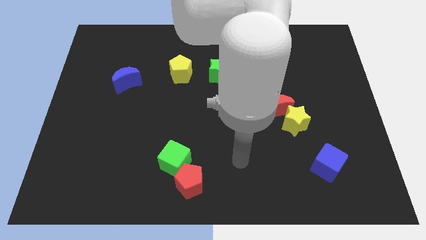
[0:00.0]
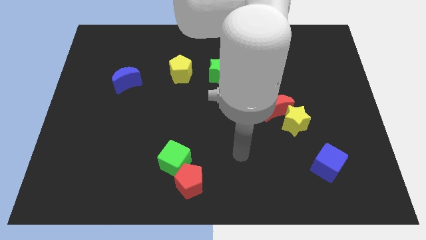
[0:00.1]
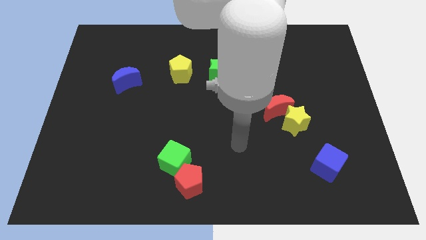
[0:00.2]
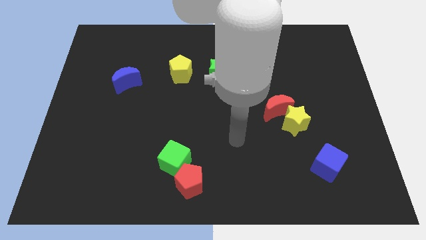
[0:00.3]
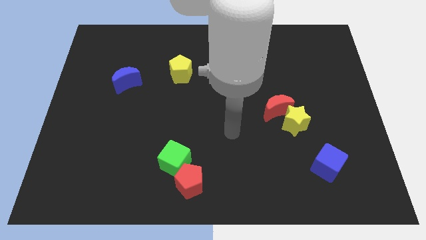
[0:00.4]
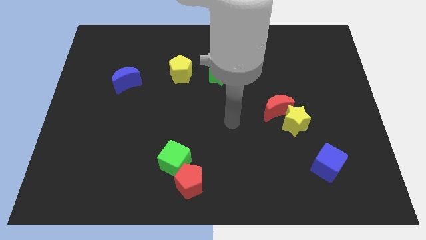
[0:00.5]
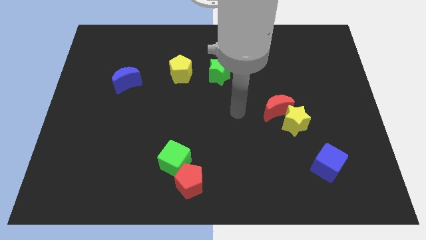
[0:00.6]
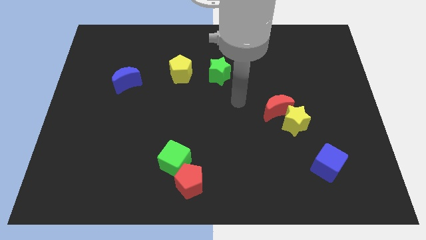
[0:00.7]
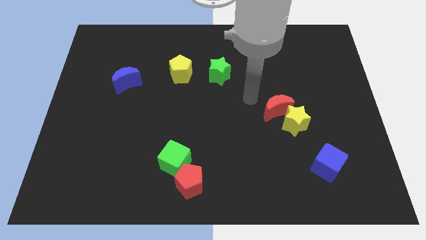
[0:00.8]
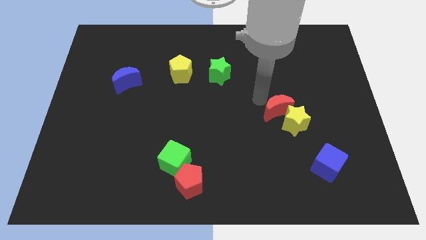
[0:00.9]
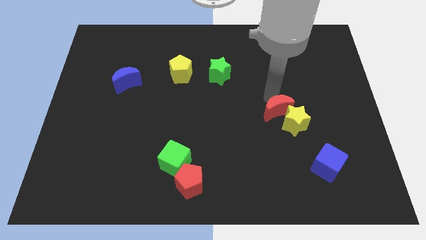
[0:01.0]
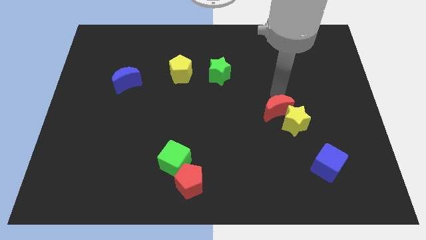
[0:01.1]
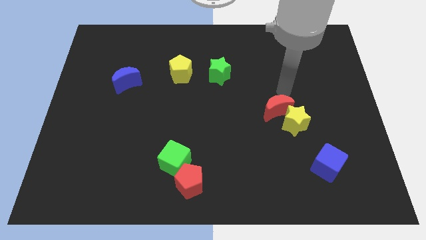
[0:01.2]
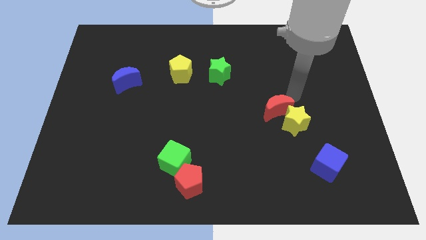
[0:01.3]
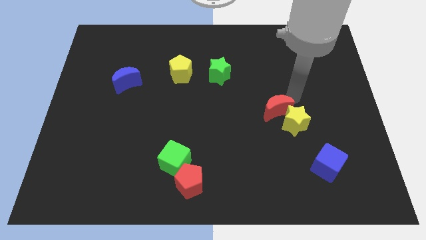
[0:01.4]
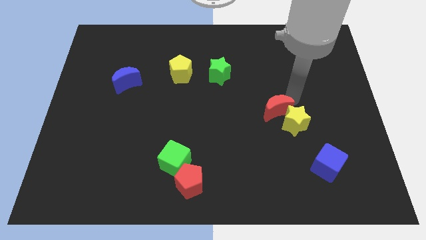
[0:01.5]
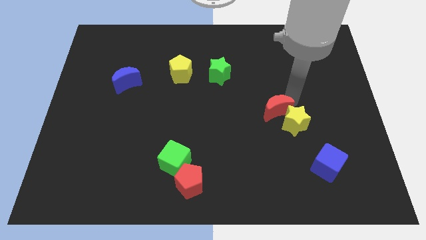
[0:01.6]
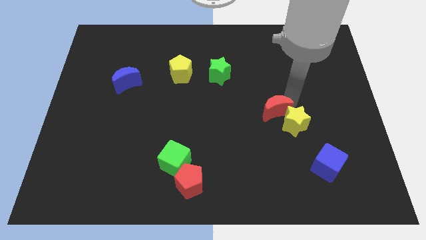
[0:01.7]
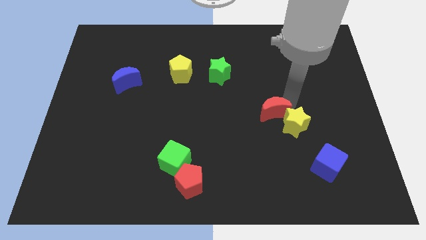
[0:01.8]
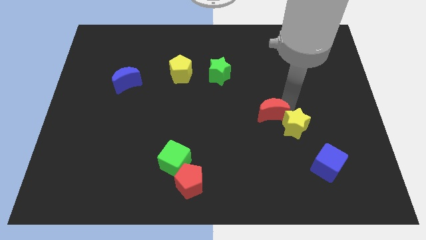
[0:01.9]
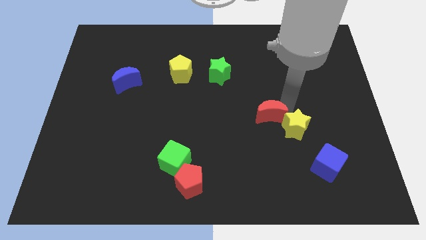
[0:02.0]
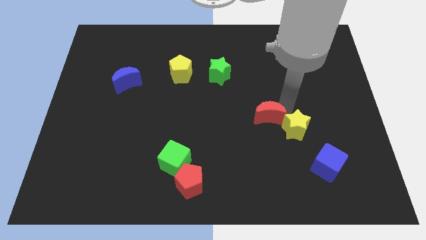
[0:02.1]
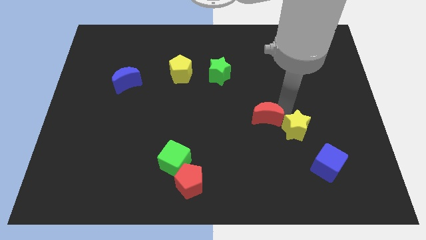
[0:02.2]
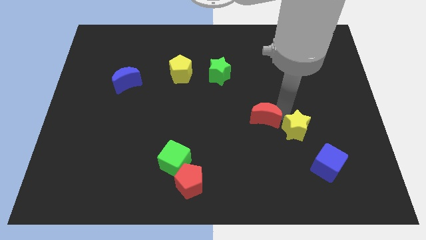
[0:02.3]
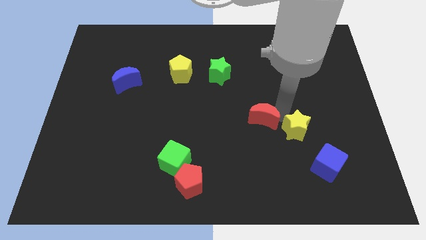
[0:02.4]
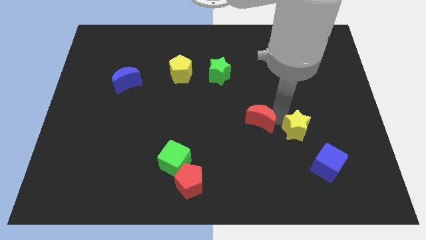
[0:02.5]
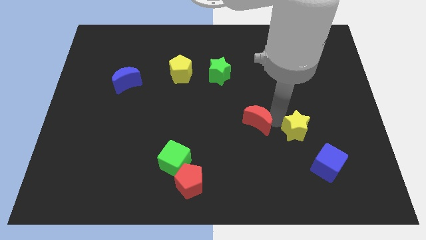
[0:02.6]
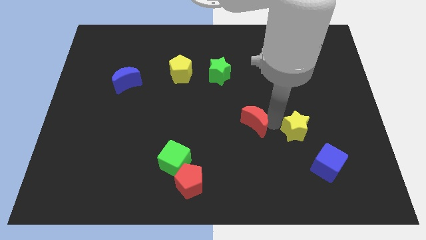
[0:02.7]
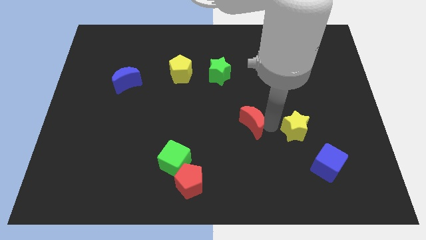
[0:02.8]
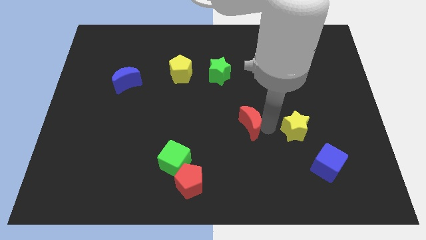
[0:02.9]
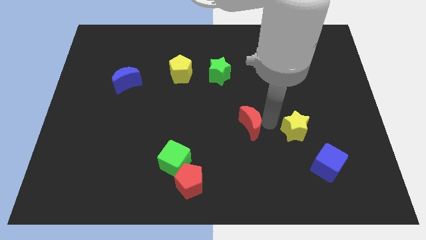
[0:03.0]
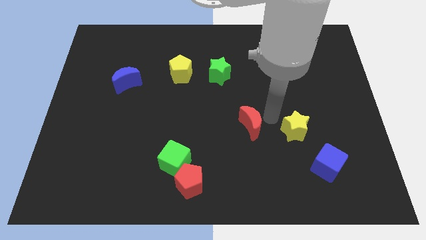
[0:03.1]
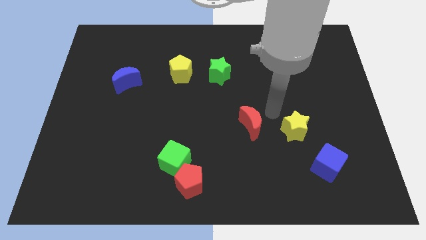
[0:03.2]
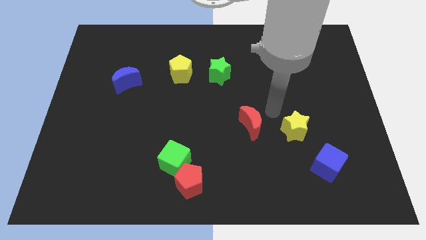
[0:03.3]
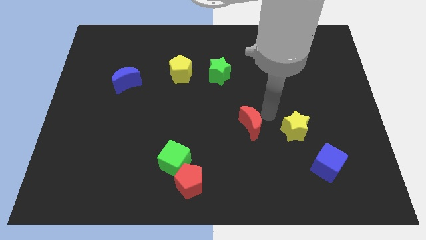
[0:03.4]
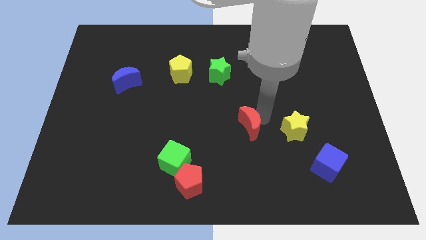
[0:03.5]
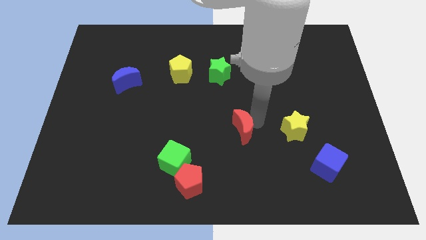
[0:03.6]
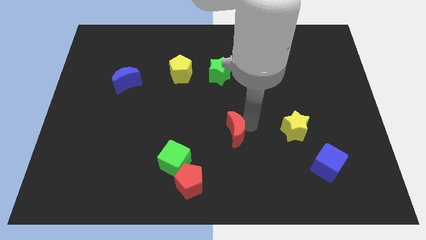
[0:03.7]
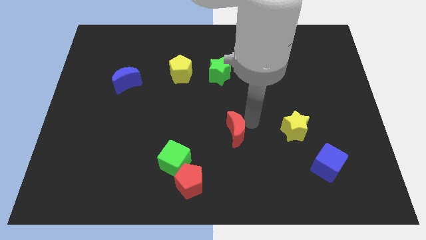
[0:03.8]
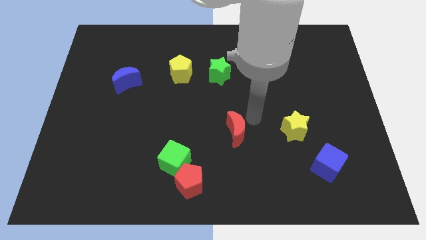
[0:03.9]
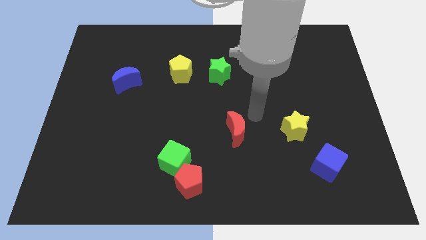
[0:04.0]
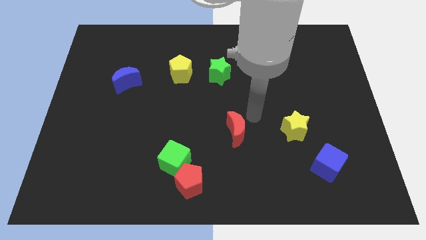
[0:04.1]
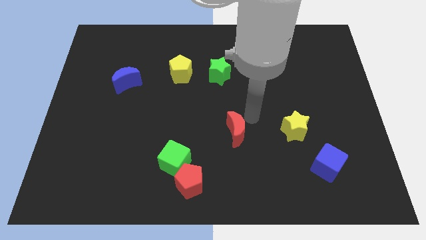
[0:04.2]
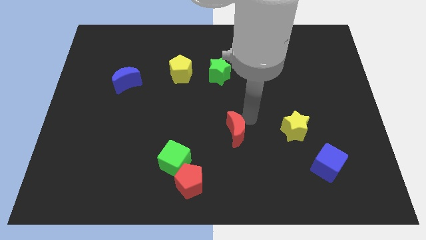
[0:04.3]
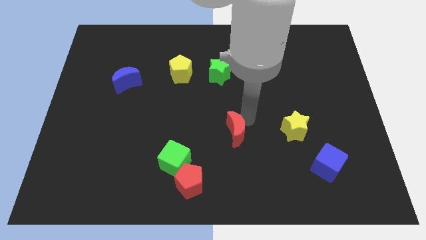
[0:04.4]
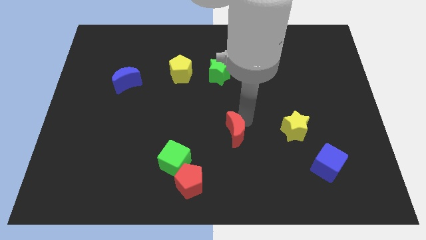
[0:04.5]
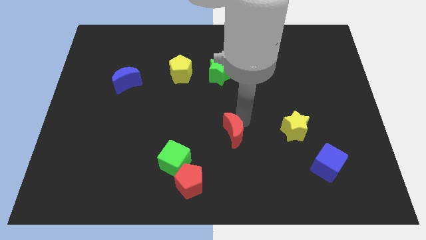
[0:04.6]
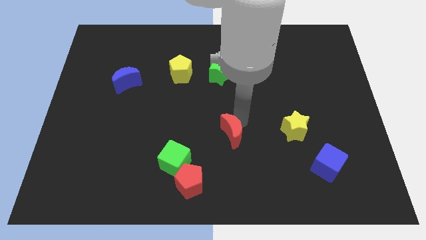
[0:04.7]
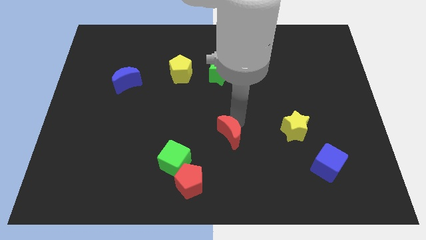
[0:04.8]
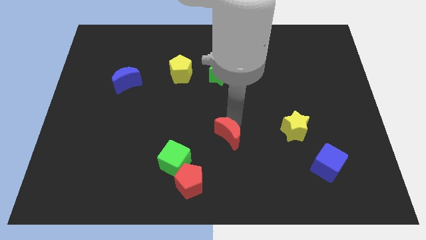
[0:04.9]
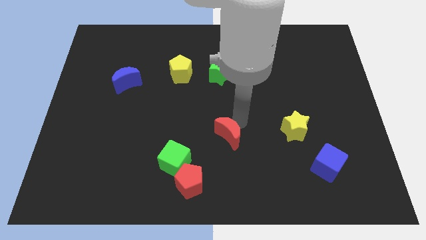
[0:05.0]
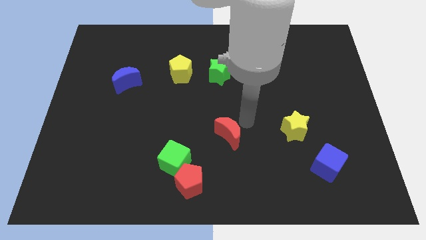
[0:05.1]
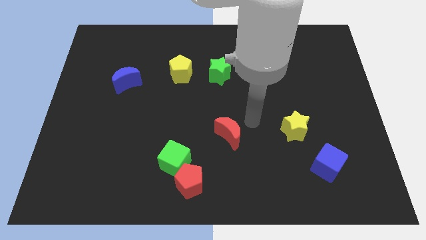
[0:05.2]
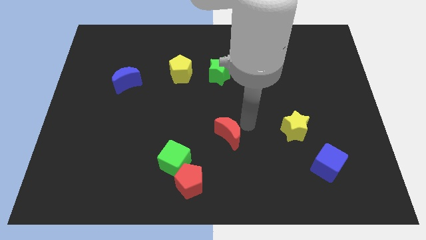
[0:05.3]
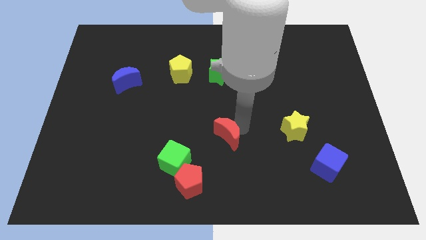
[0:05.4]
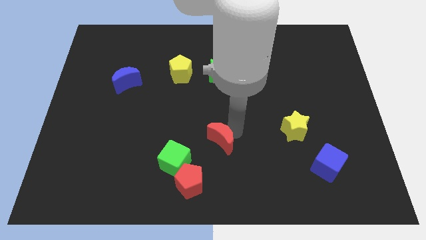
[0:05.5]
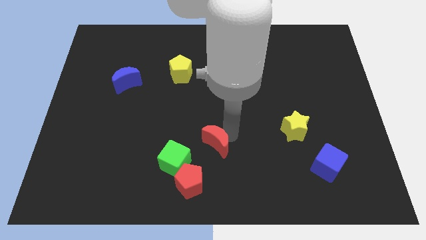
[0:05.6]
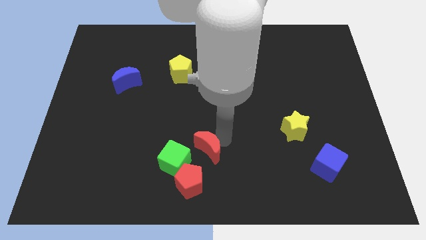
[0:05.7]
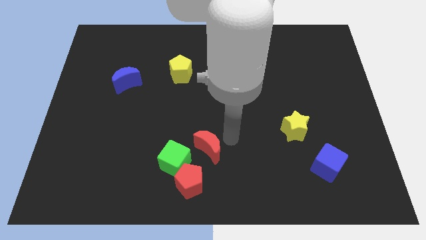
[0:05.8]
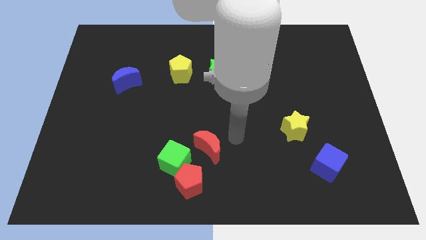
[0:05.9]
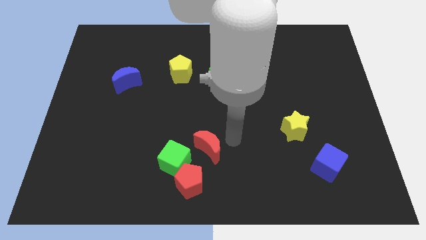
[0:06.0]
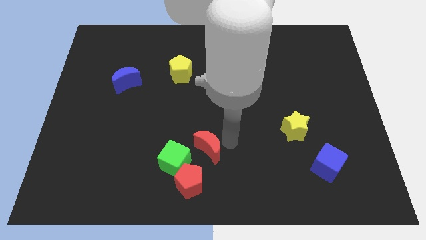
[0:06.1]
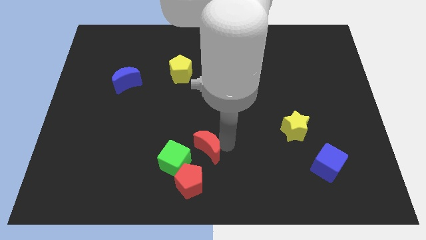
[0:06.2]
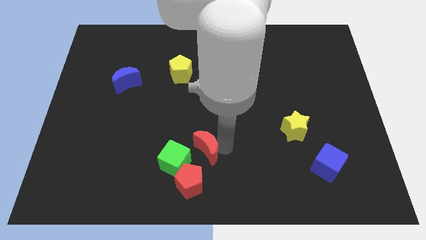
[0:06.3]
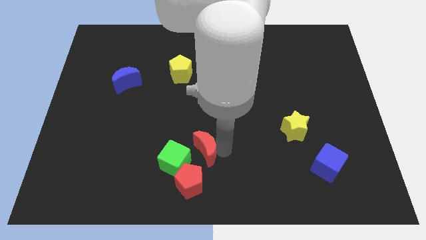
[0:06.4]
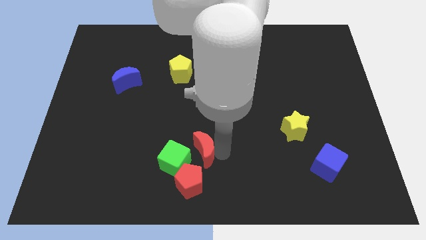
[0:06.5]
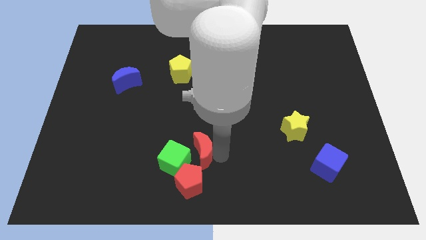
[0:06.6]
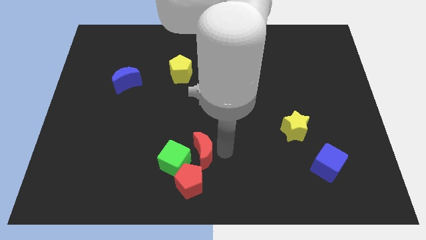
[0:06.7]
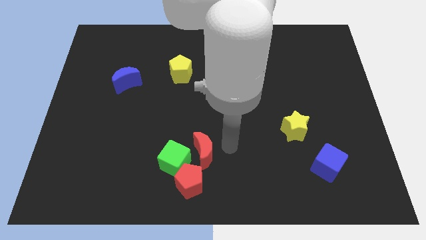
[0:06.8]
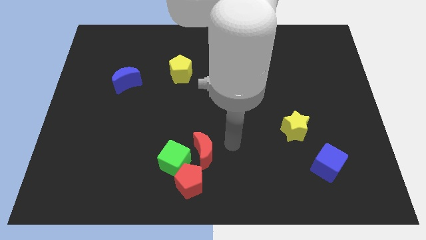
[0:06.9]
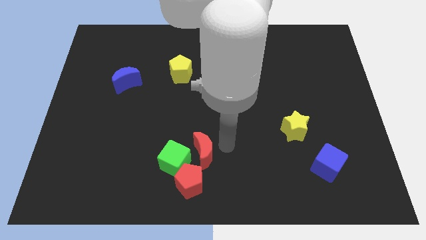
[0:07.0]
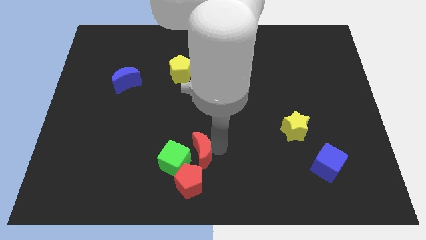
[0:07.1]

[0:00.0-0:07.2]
slide the red moon towards the green cube
